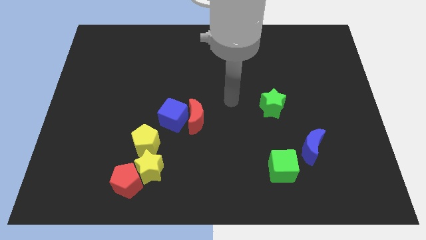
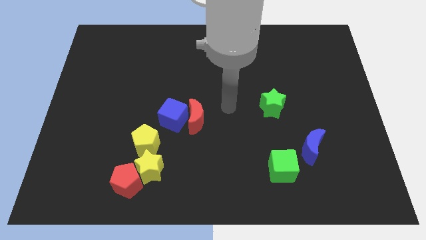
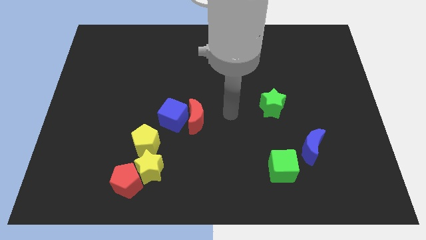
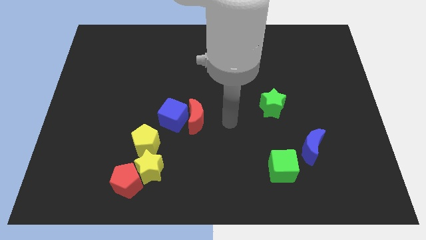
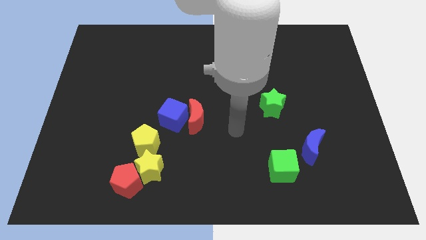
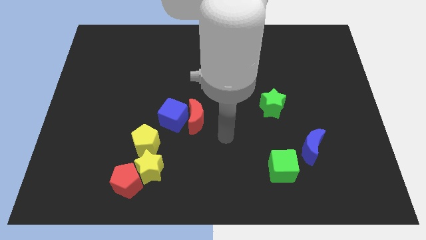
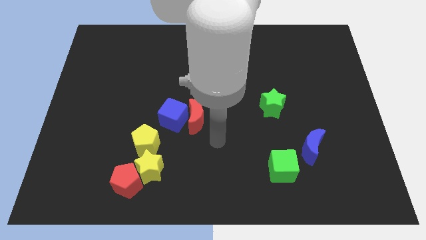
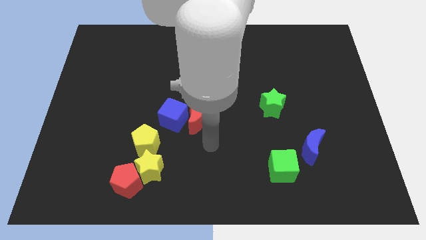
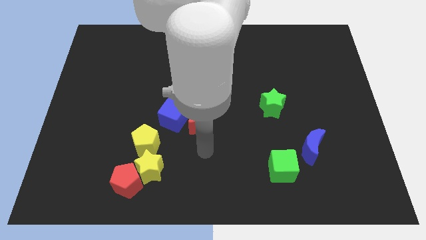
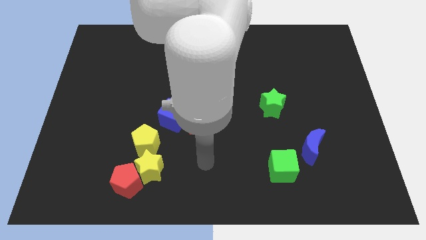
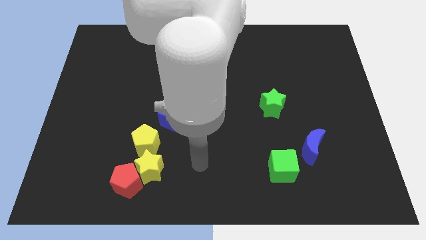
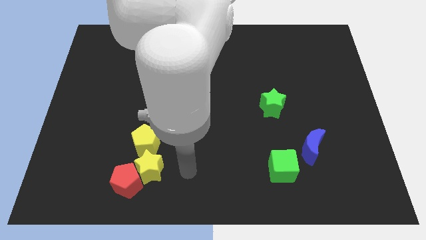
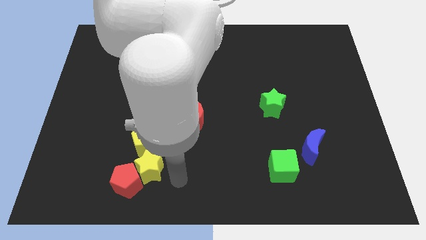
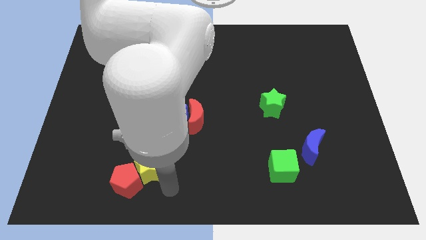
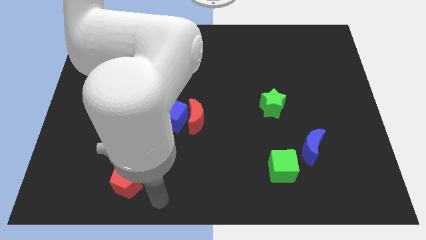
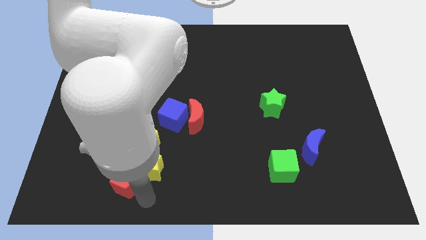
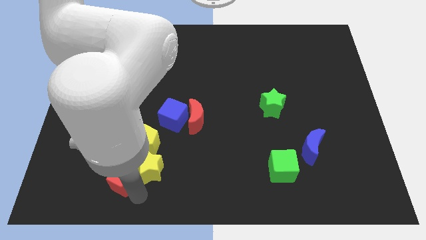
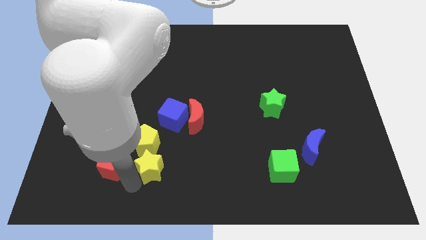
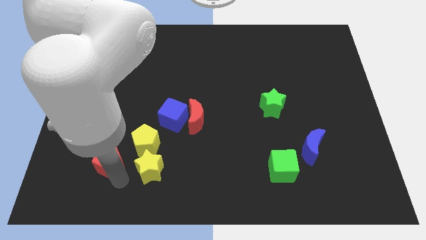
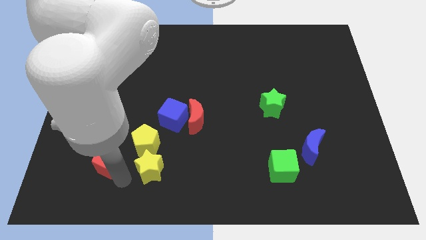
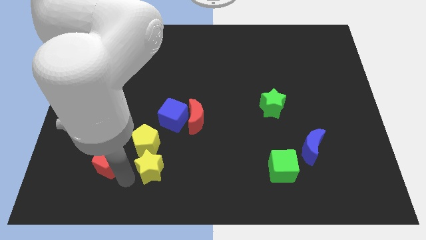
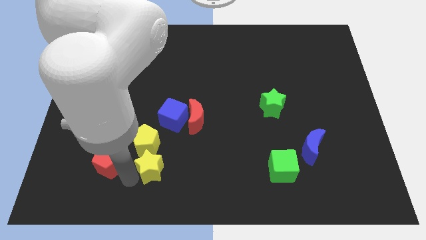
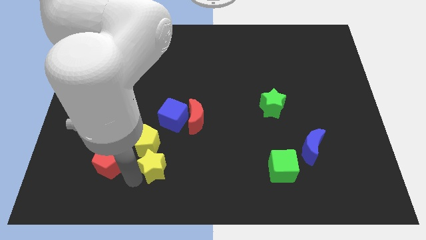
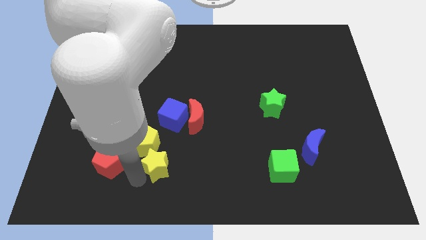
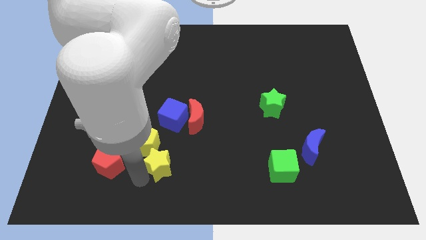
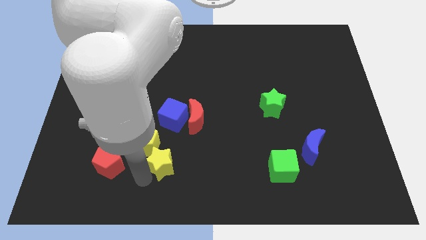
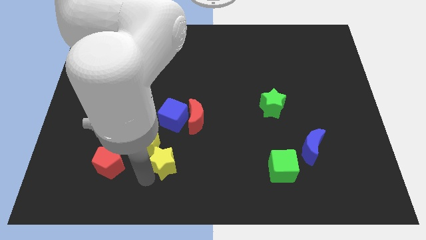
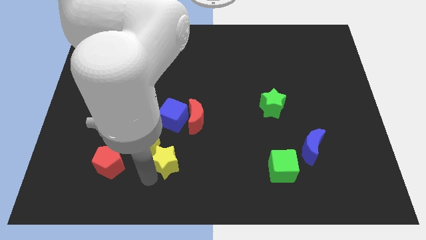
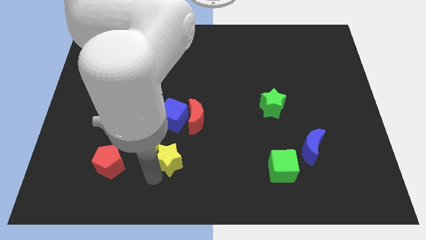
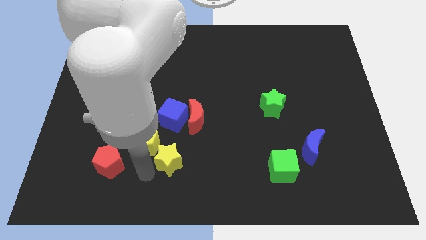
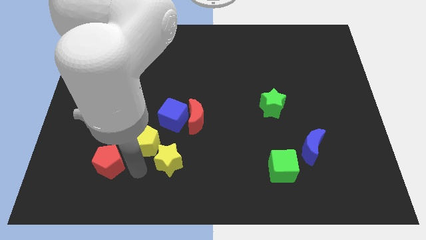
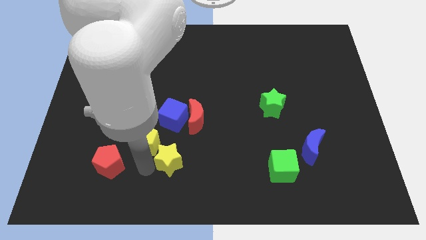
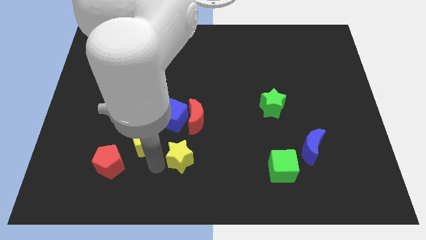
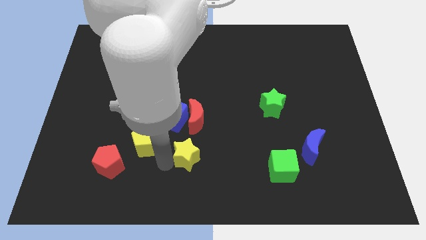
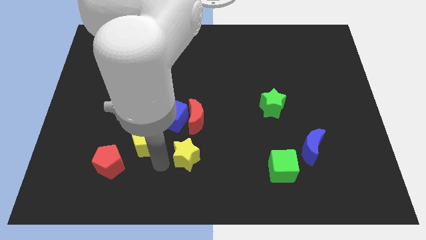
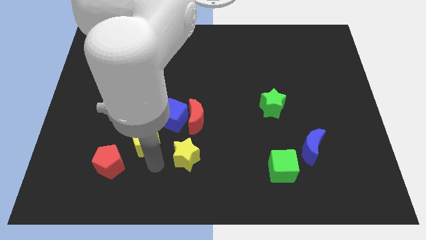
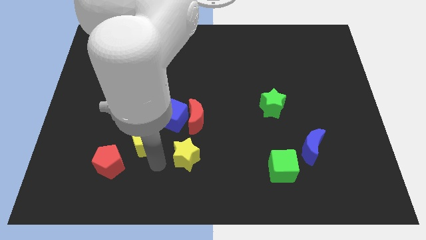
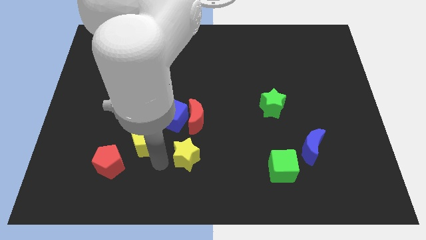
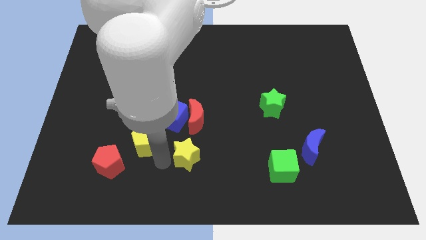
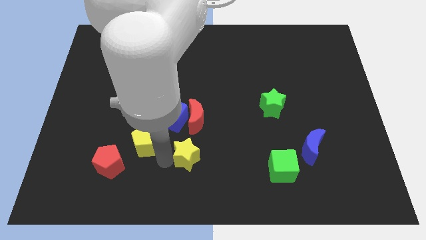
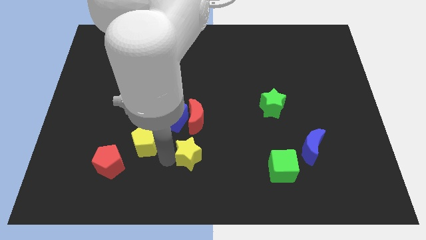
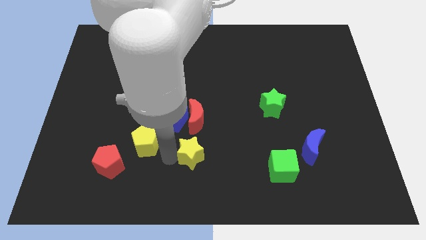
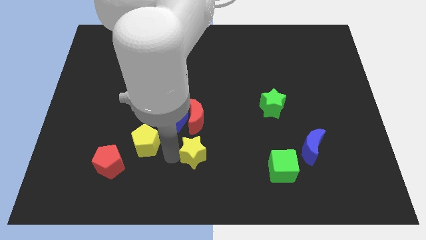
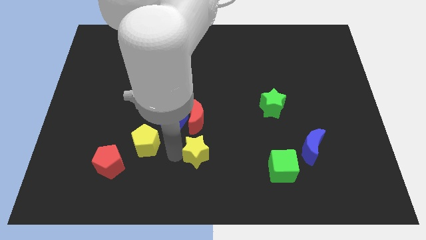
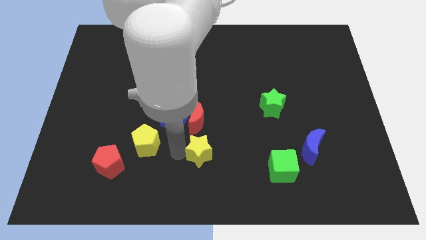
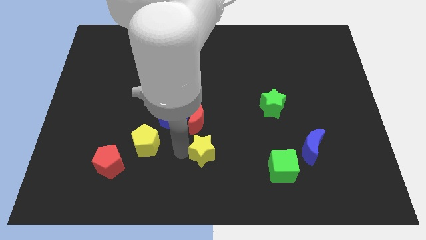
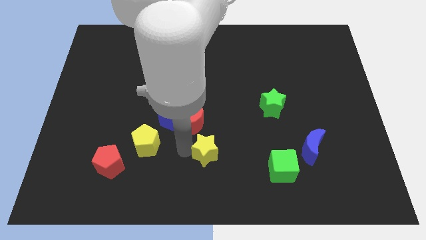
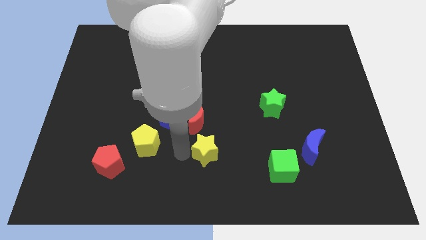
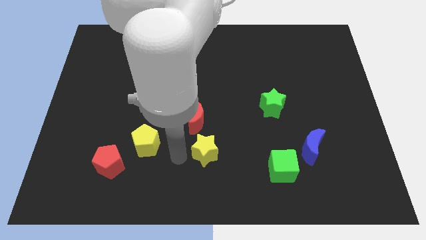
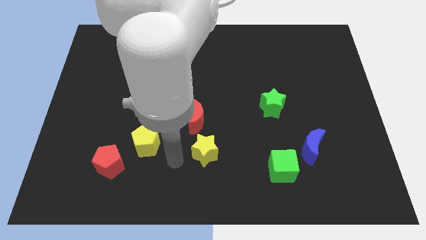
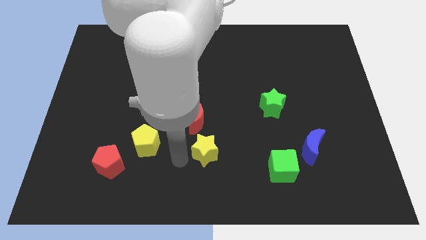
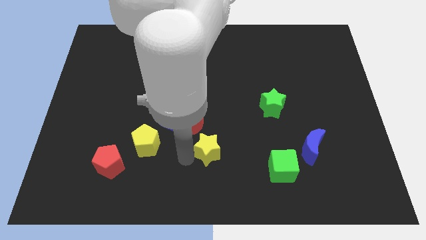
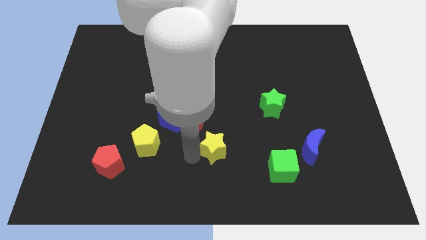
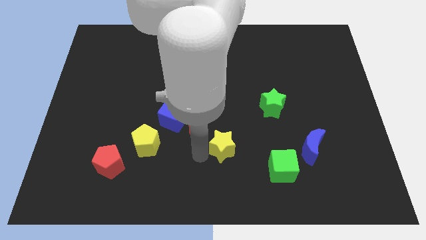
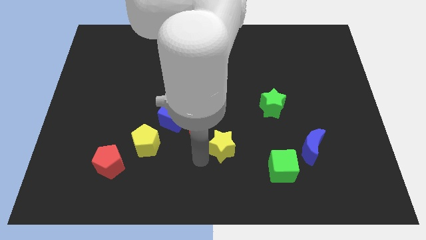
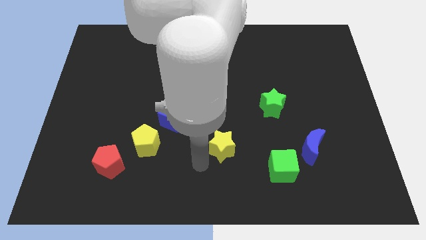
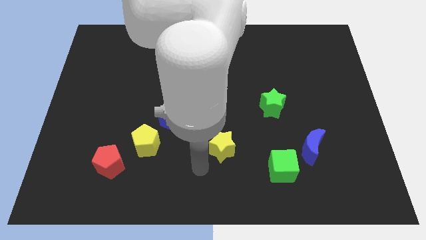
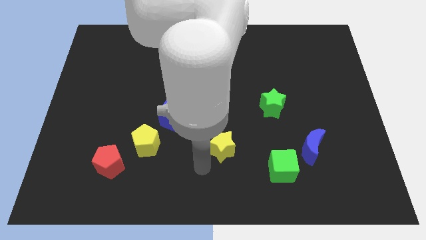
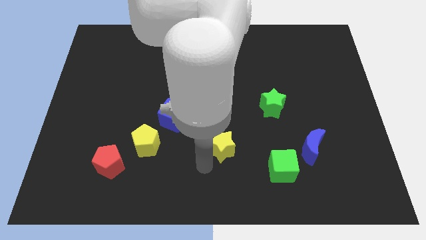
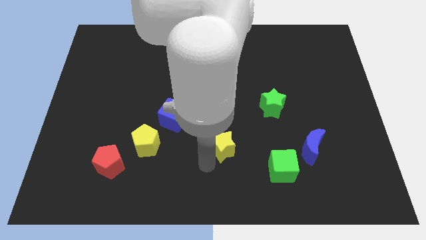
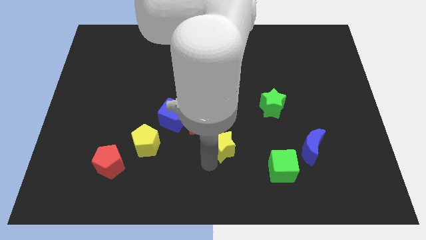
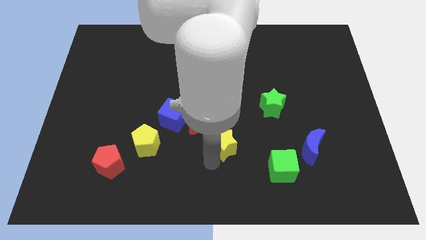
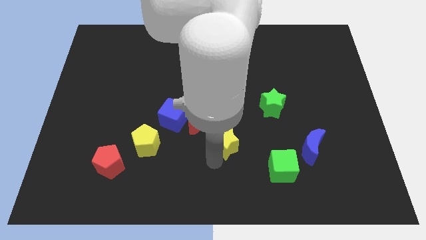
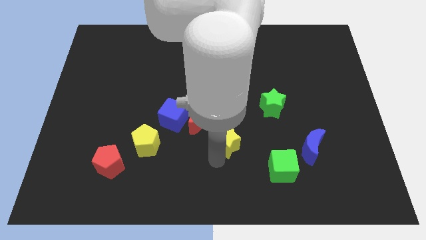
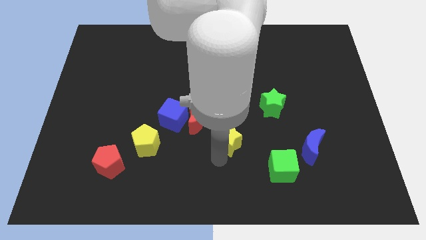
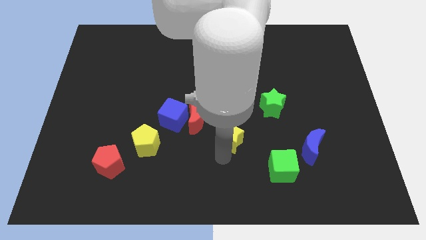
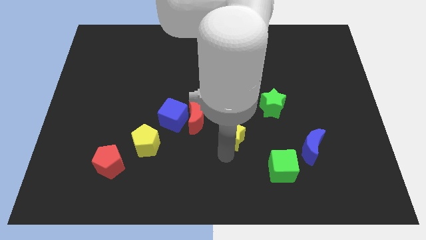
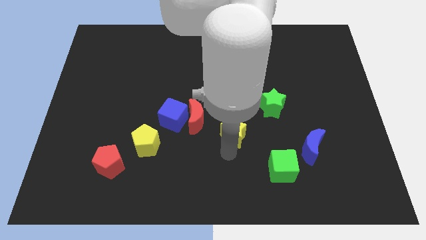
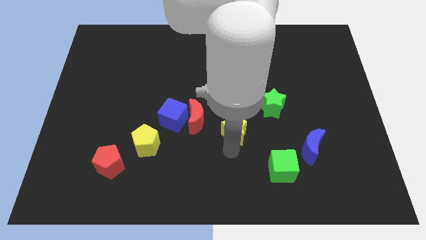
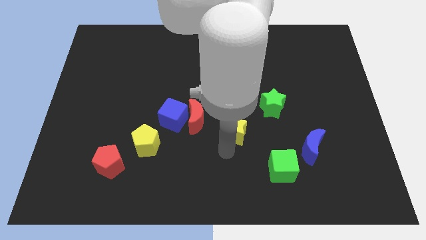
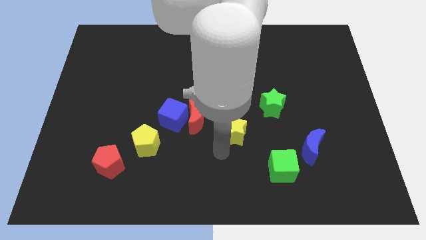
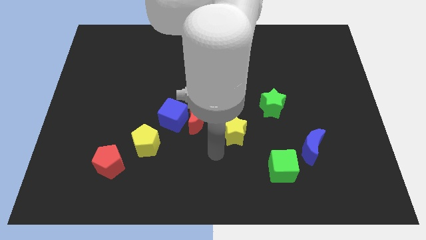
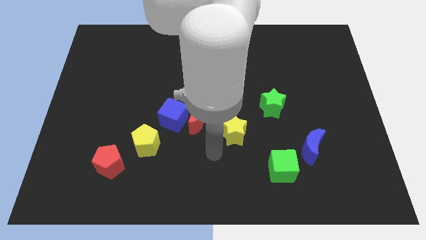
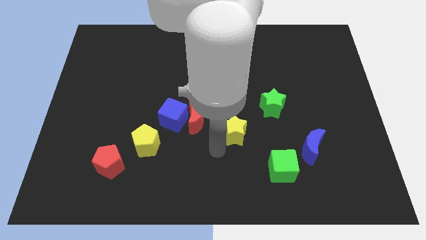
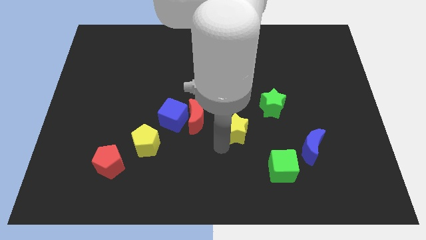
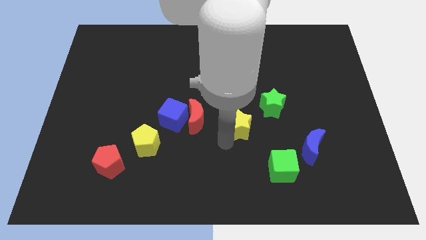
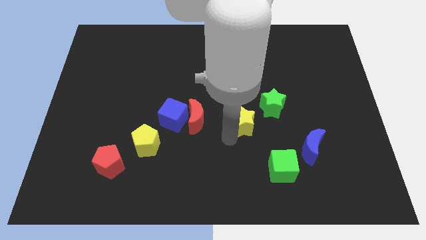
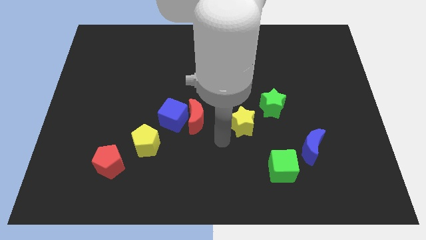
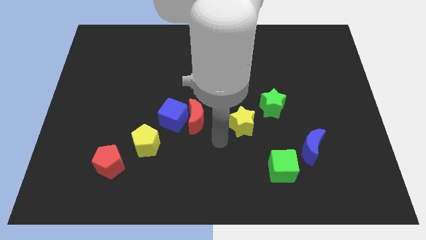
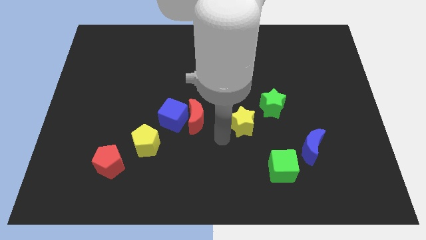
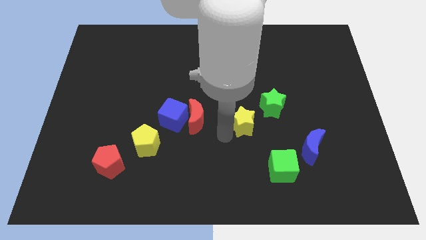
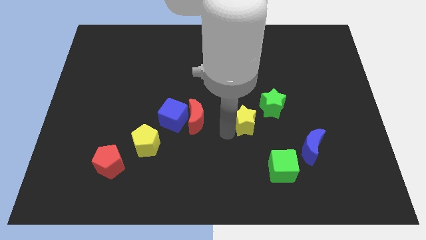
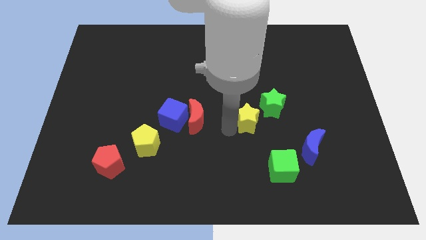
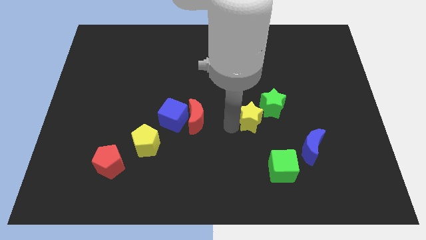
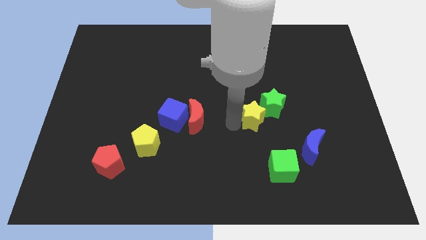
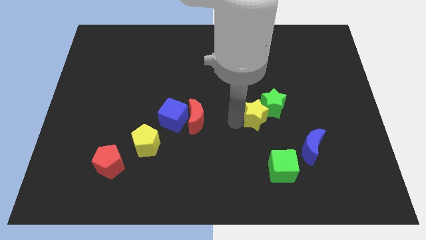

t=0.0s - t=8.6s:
put the yellow star next to the green star
